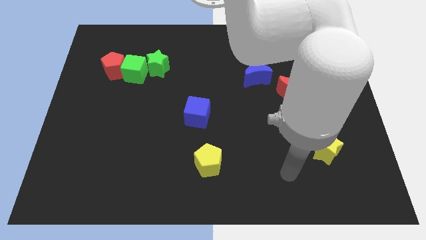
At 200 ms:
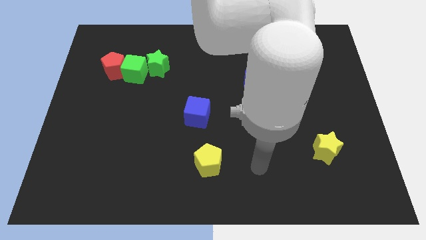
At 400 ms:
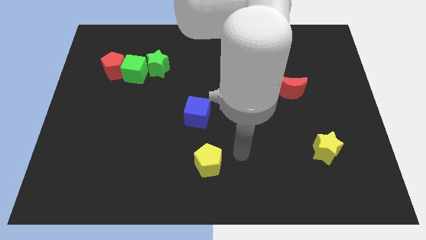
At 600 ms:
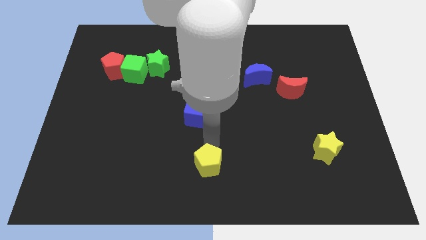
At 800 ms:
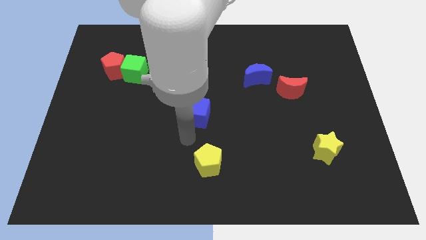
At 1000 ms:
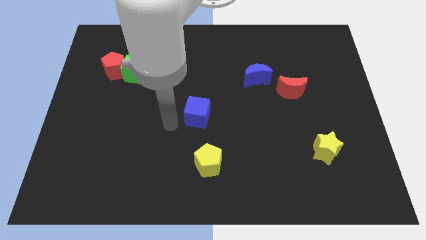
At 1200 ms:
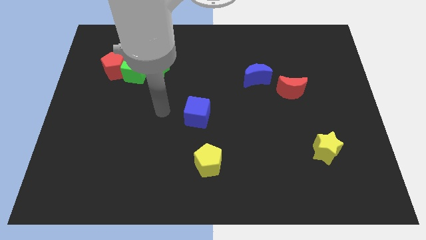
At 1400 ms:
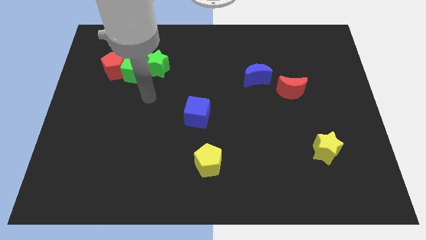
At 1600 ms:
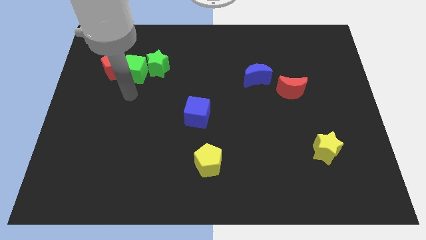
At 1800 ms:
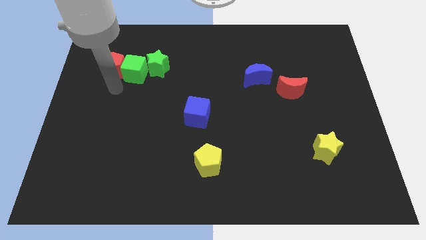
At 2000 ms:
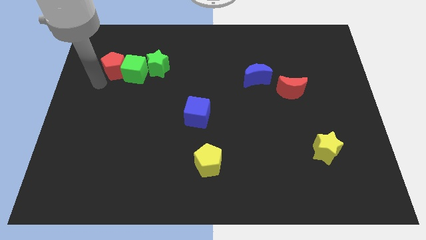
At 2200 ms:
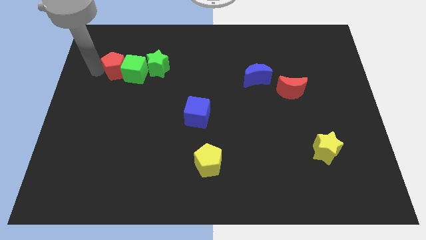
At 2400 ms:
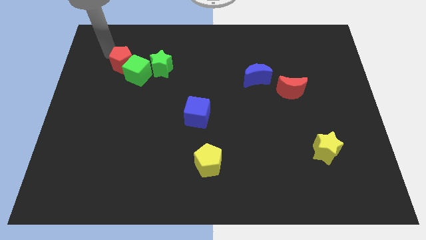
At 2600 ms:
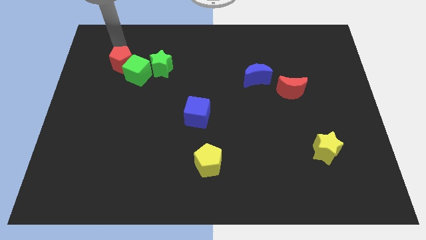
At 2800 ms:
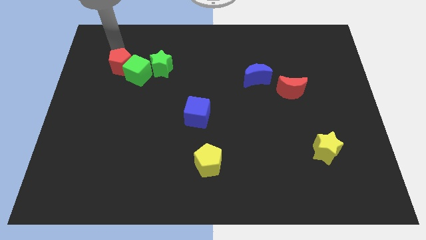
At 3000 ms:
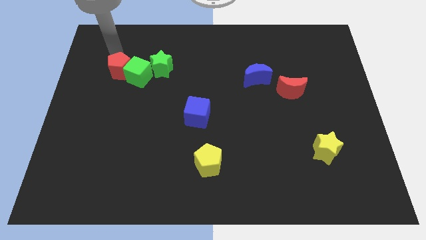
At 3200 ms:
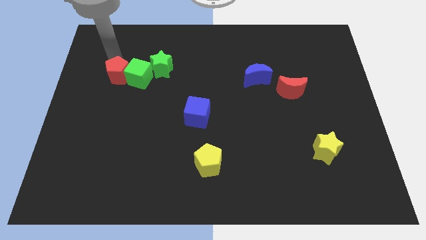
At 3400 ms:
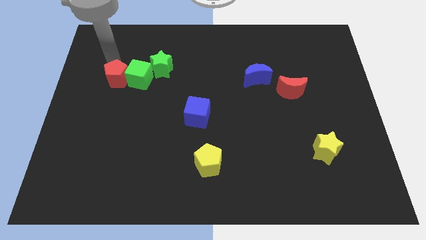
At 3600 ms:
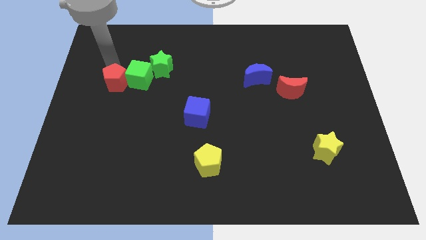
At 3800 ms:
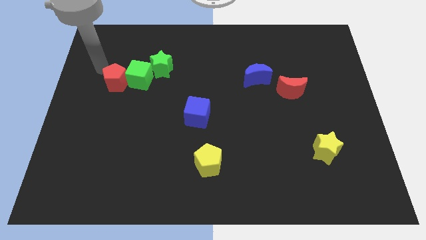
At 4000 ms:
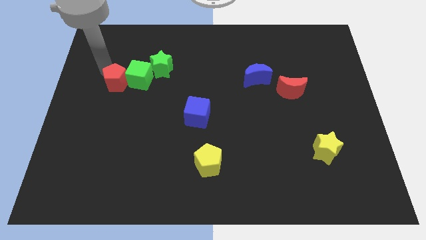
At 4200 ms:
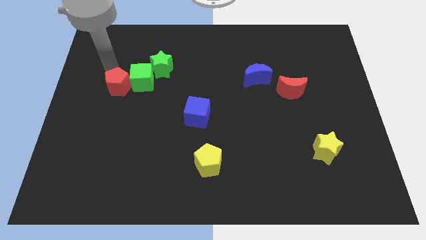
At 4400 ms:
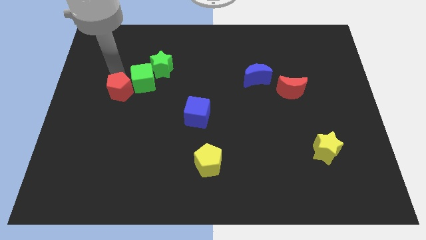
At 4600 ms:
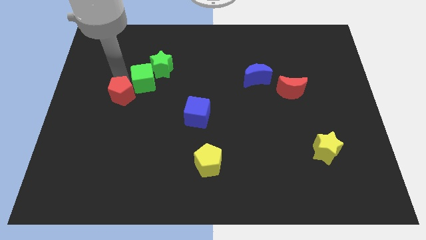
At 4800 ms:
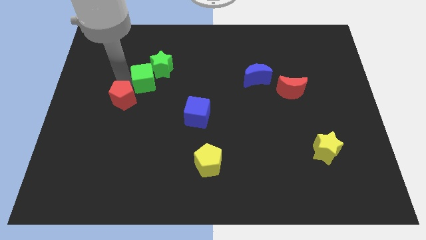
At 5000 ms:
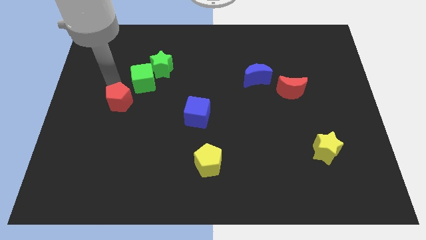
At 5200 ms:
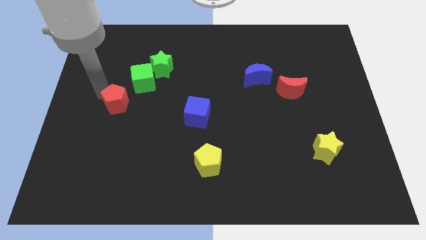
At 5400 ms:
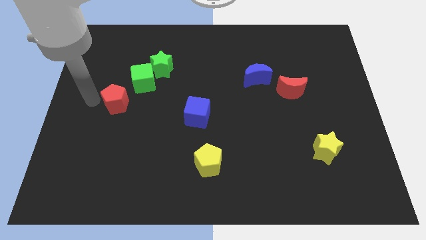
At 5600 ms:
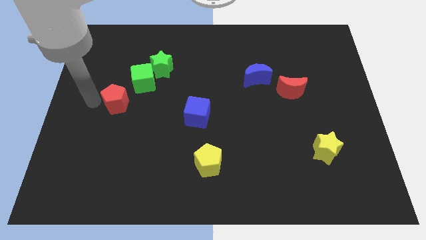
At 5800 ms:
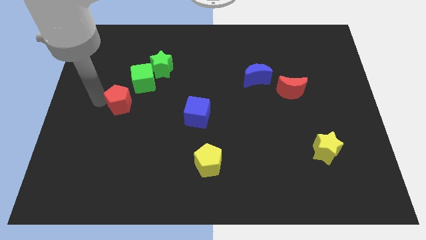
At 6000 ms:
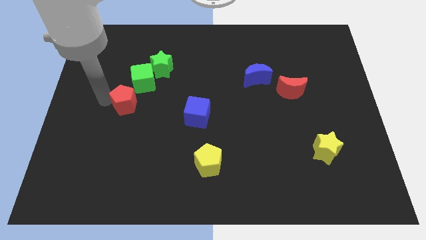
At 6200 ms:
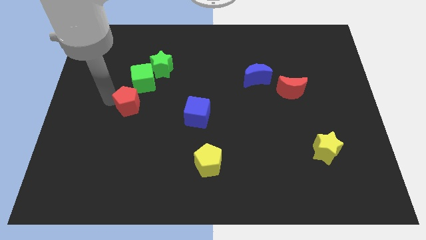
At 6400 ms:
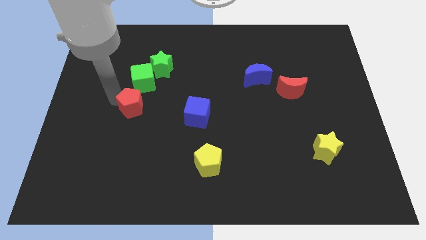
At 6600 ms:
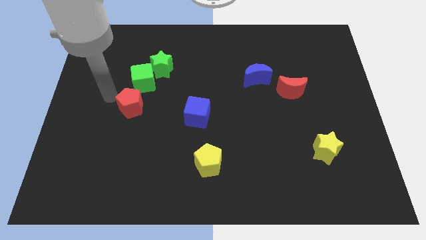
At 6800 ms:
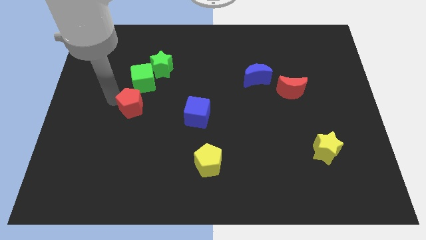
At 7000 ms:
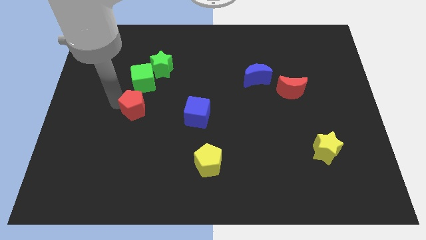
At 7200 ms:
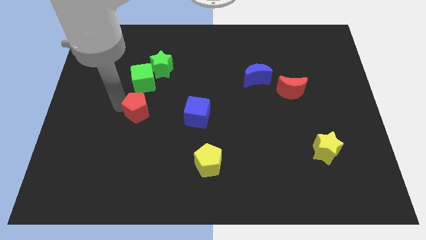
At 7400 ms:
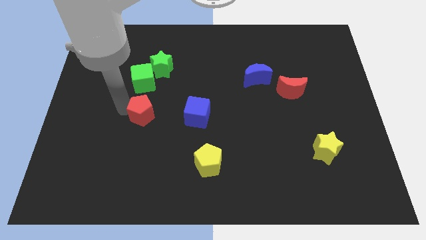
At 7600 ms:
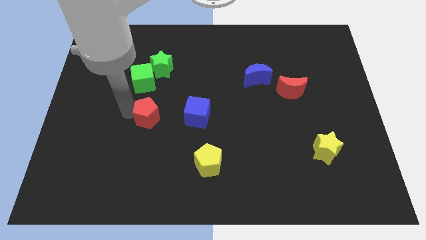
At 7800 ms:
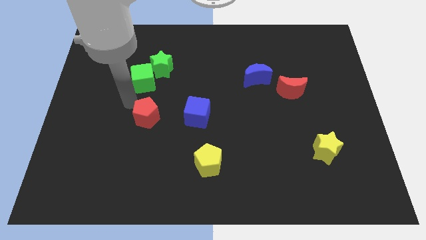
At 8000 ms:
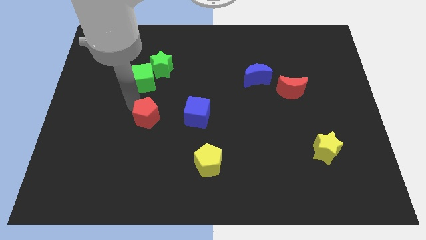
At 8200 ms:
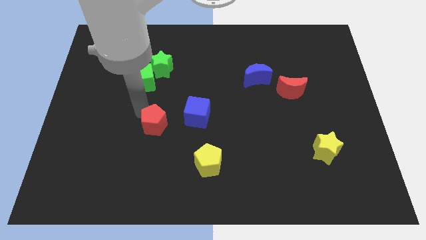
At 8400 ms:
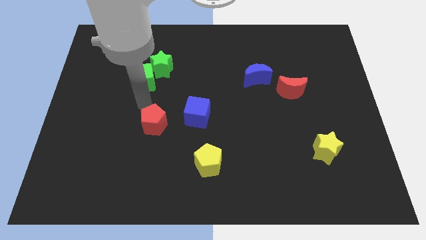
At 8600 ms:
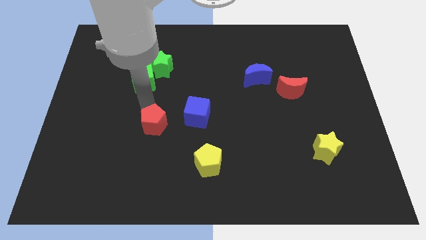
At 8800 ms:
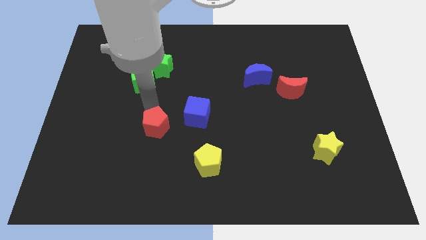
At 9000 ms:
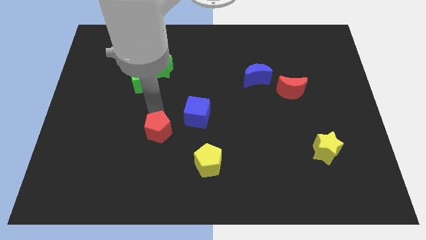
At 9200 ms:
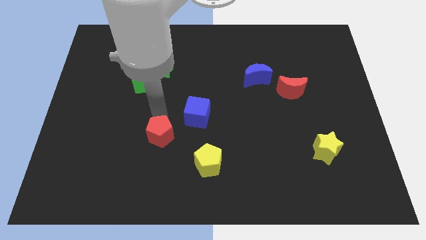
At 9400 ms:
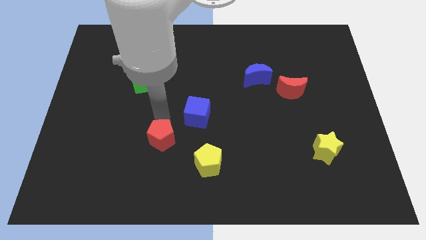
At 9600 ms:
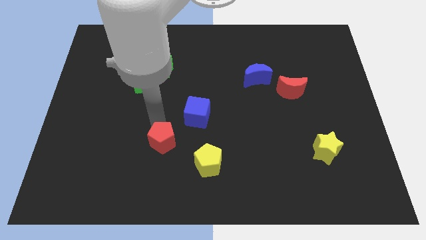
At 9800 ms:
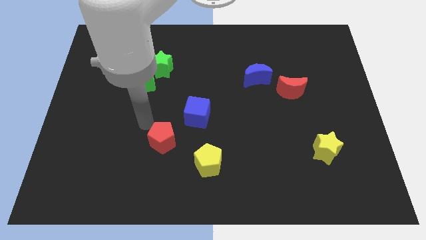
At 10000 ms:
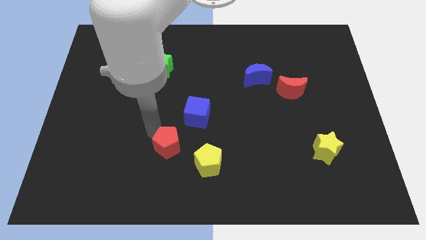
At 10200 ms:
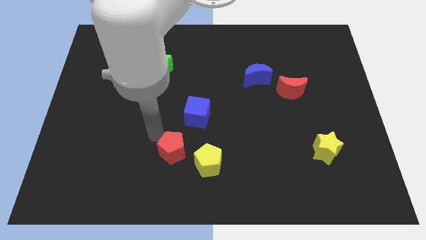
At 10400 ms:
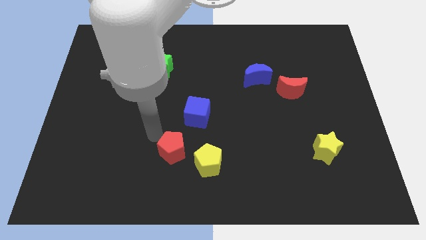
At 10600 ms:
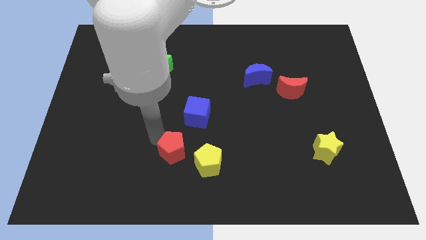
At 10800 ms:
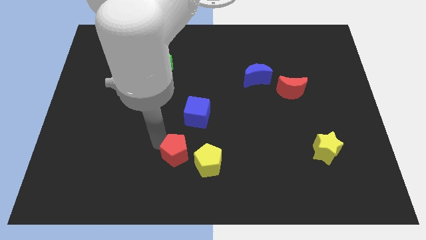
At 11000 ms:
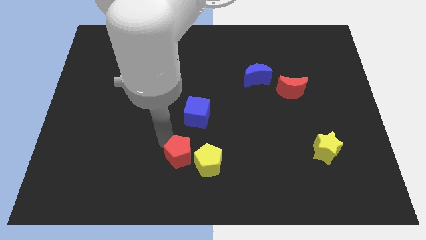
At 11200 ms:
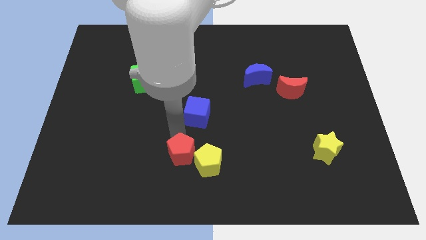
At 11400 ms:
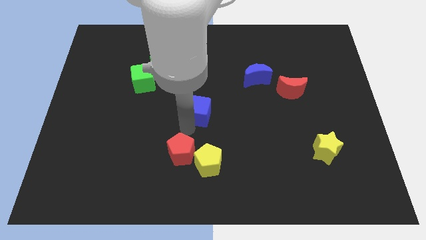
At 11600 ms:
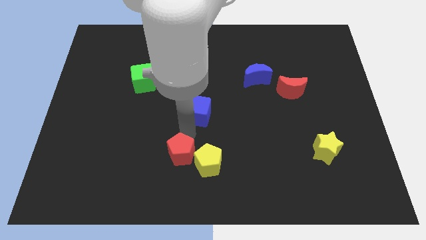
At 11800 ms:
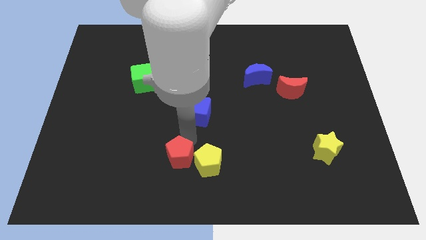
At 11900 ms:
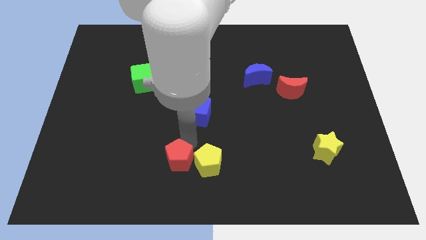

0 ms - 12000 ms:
put the red pentagon to the bottom side

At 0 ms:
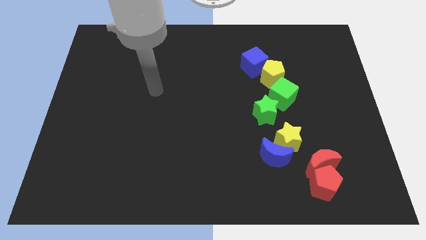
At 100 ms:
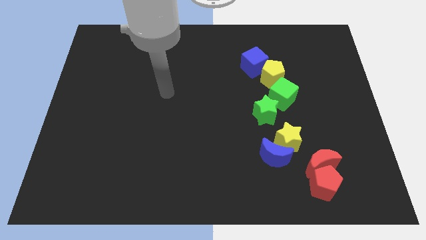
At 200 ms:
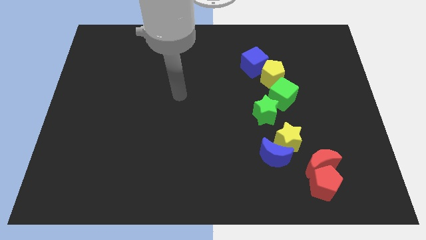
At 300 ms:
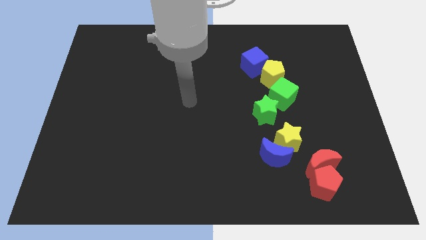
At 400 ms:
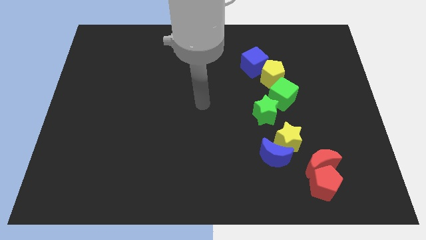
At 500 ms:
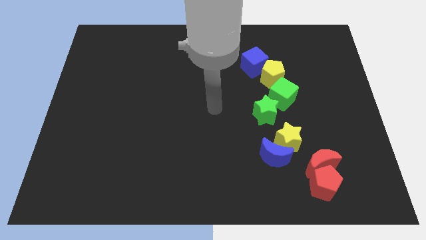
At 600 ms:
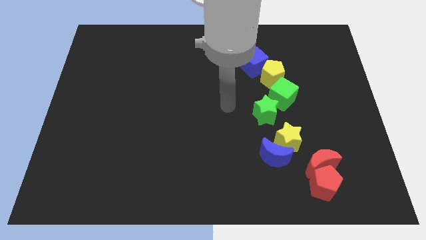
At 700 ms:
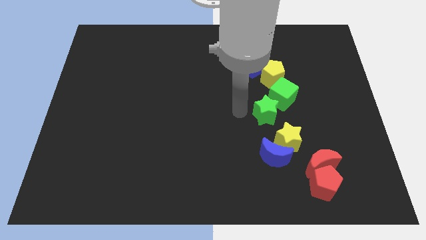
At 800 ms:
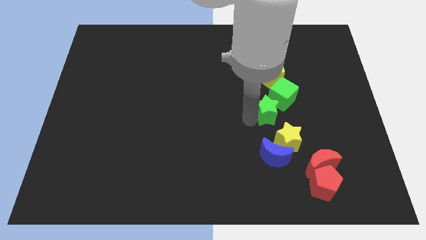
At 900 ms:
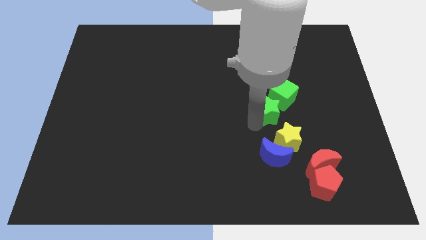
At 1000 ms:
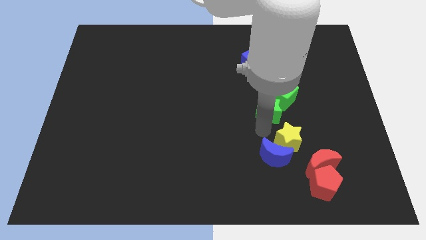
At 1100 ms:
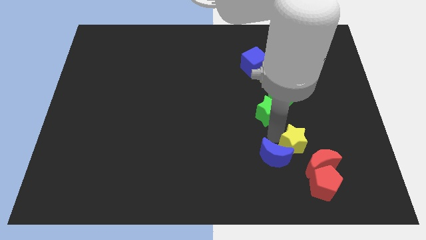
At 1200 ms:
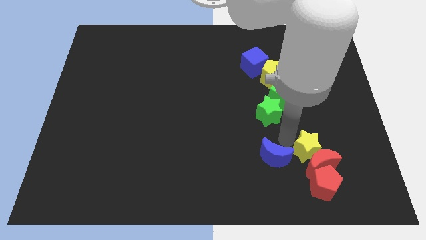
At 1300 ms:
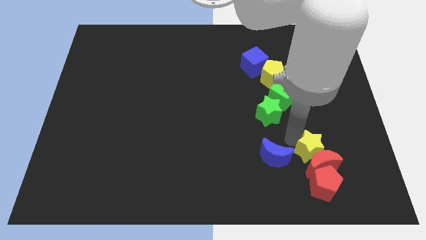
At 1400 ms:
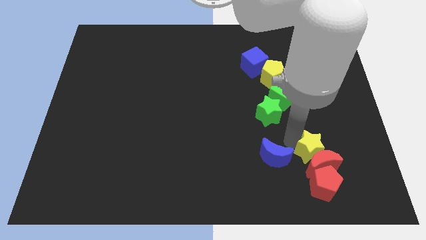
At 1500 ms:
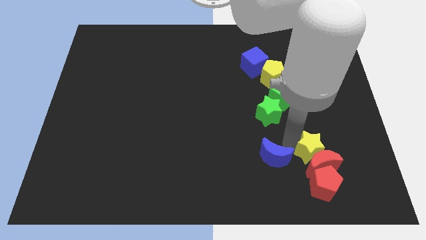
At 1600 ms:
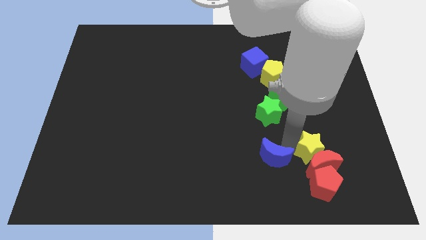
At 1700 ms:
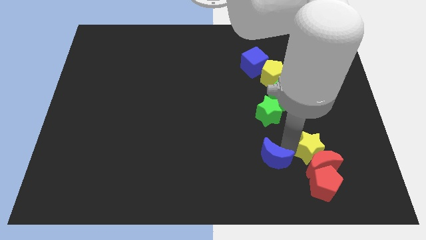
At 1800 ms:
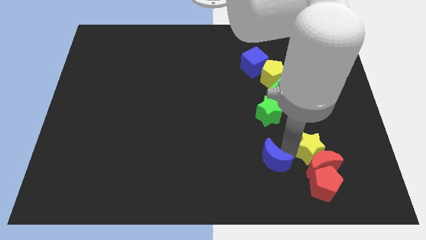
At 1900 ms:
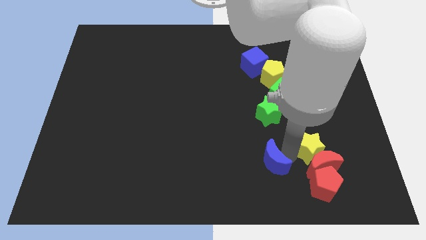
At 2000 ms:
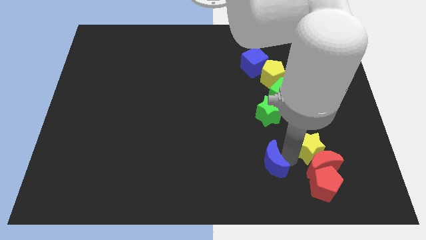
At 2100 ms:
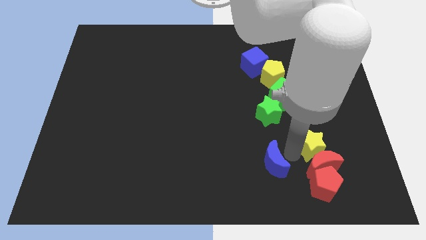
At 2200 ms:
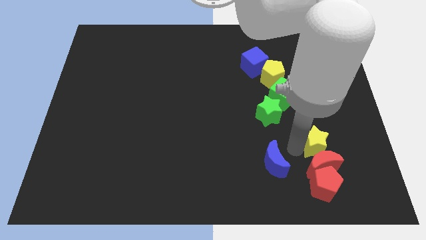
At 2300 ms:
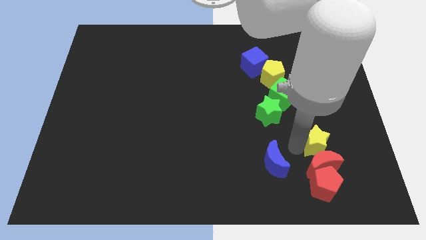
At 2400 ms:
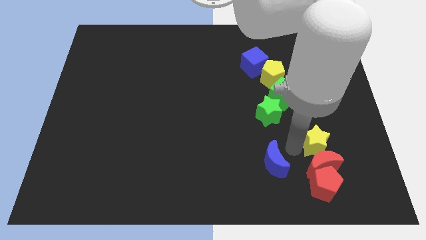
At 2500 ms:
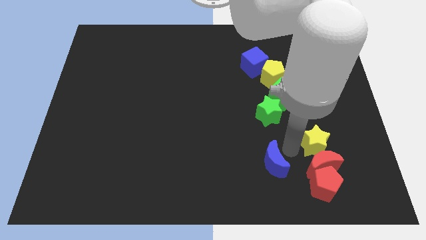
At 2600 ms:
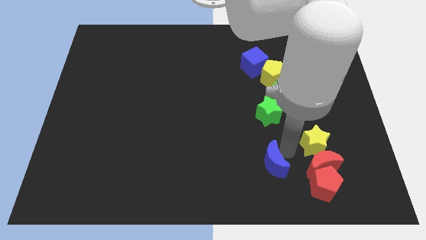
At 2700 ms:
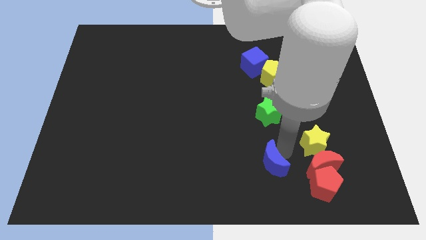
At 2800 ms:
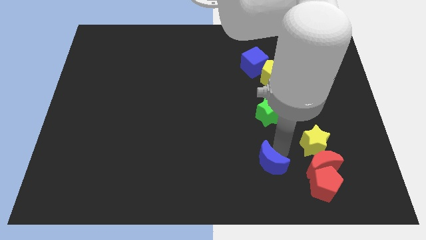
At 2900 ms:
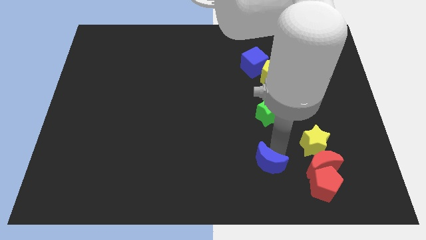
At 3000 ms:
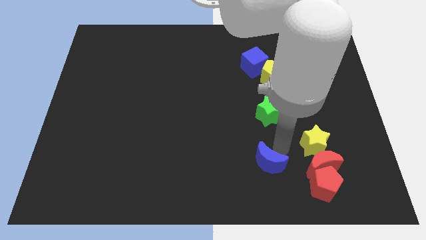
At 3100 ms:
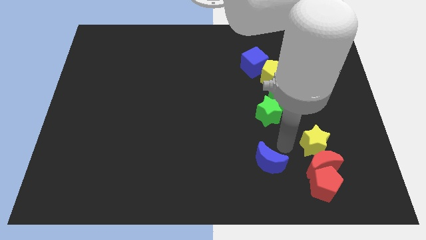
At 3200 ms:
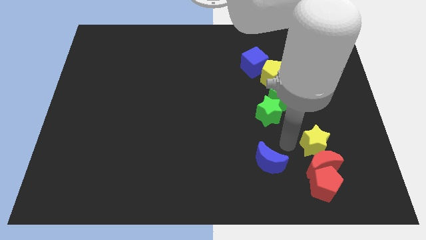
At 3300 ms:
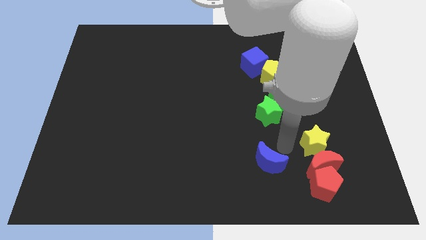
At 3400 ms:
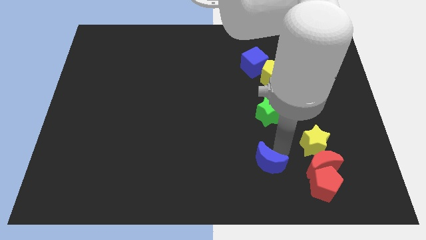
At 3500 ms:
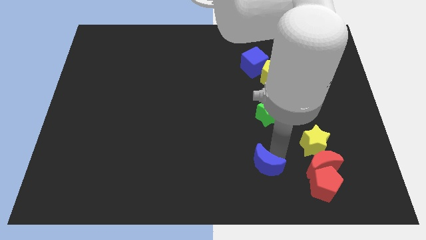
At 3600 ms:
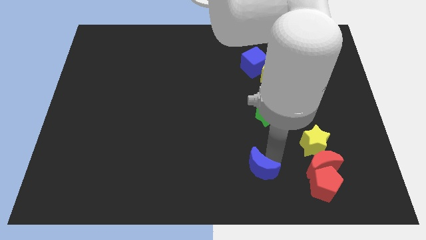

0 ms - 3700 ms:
put the blue moon to the bottom
